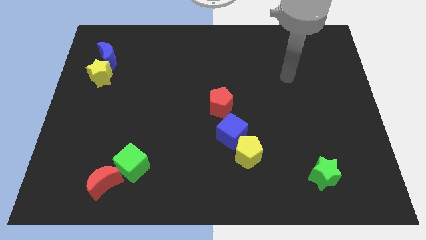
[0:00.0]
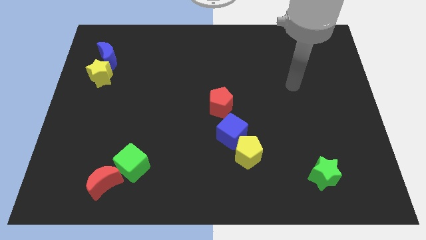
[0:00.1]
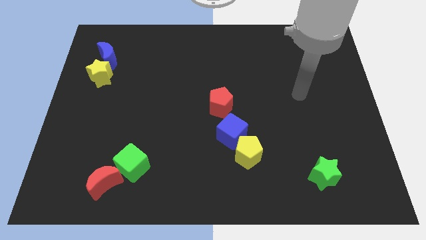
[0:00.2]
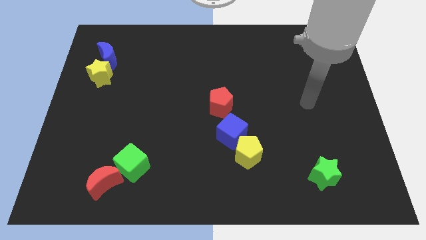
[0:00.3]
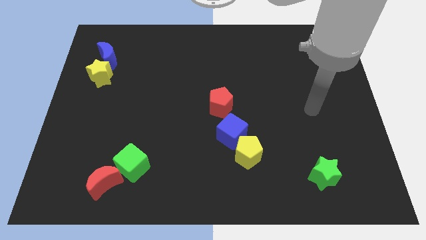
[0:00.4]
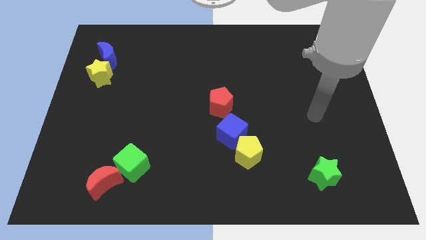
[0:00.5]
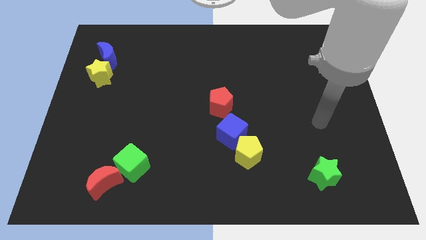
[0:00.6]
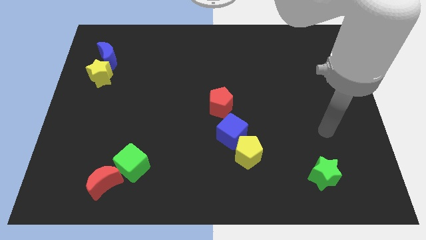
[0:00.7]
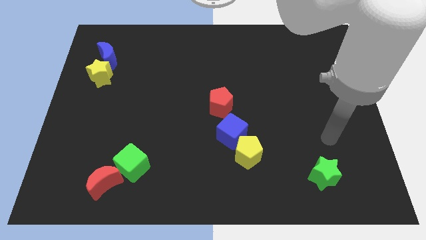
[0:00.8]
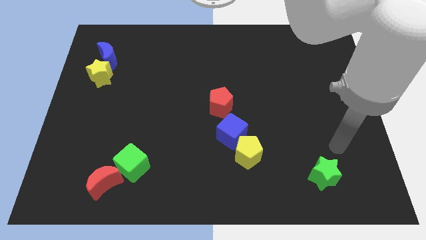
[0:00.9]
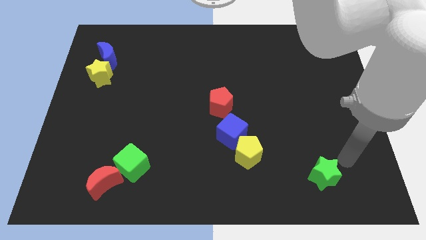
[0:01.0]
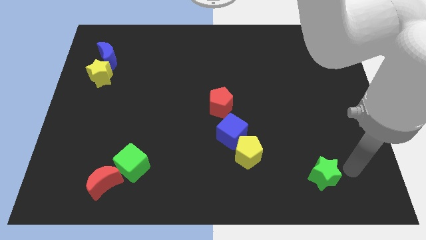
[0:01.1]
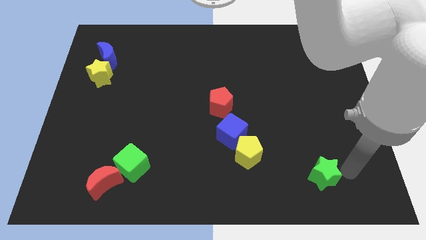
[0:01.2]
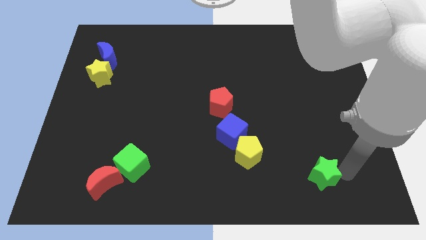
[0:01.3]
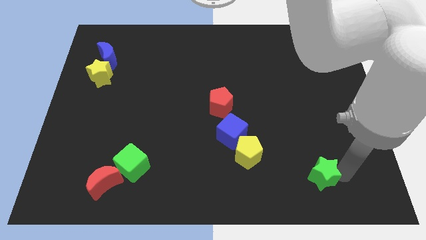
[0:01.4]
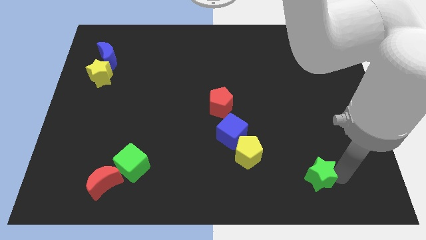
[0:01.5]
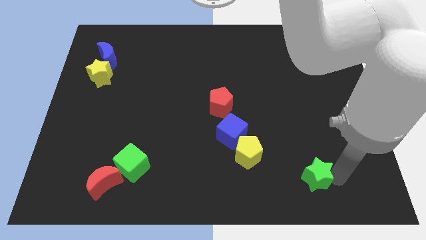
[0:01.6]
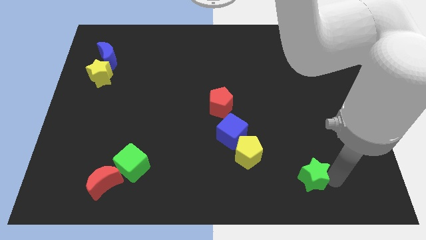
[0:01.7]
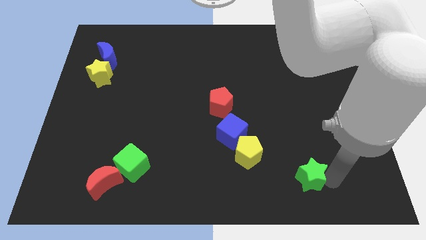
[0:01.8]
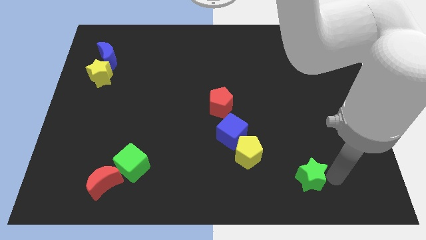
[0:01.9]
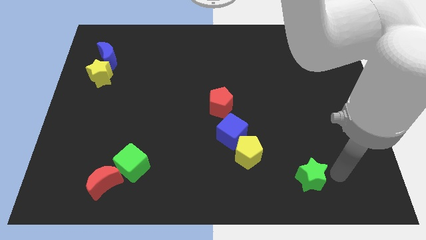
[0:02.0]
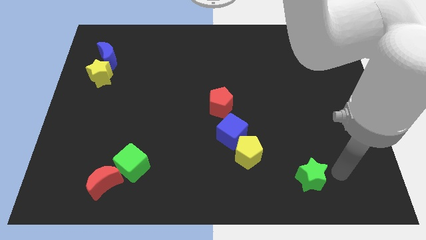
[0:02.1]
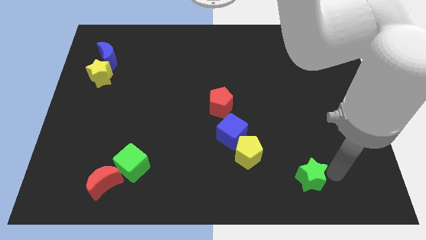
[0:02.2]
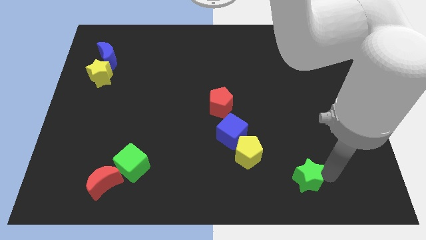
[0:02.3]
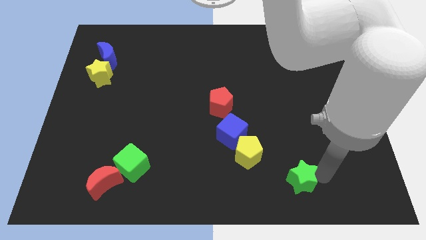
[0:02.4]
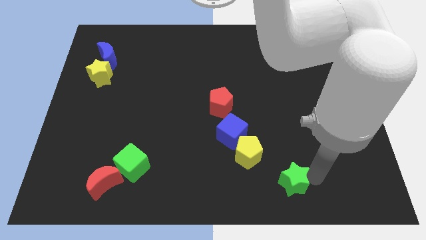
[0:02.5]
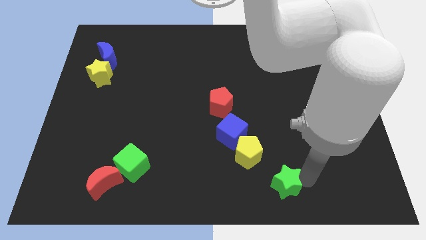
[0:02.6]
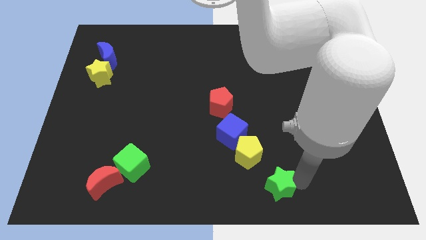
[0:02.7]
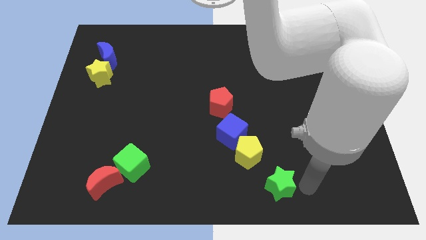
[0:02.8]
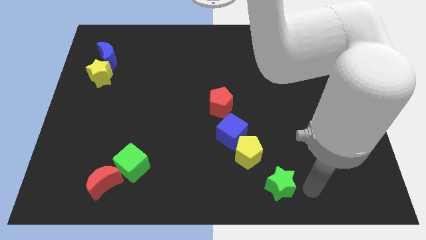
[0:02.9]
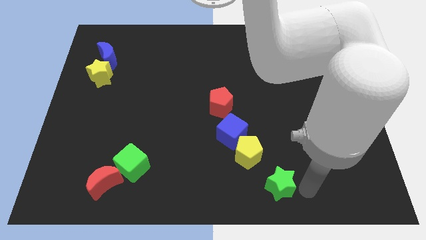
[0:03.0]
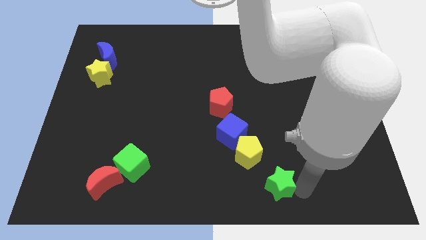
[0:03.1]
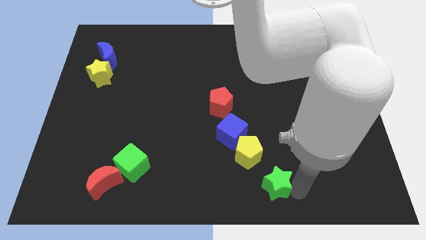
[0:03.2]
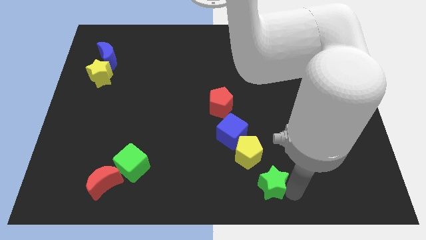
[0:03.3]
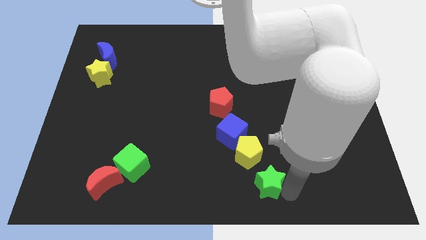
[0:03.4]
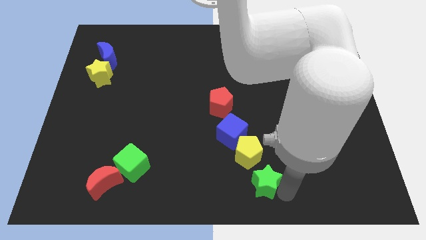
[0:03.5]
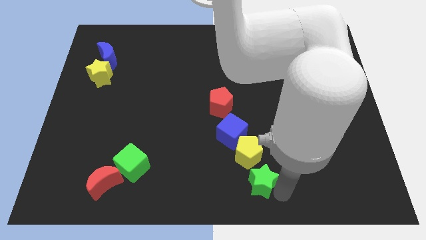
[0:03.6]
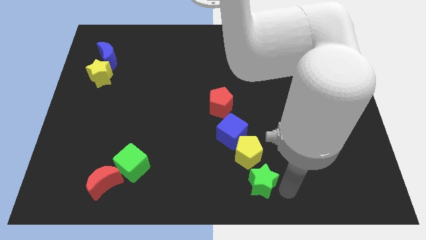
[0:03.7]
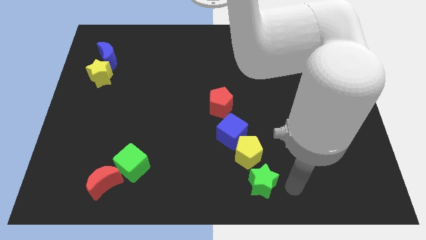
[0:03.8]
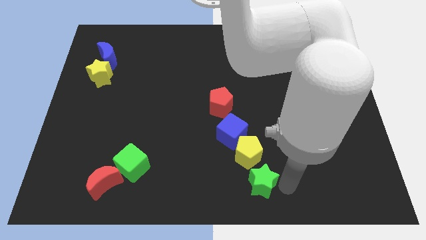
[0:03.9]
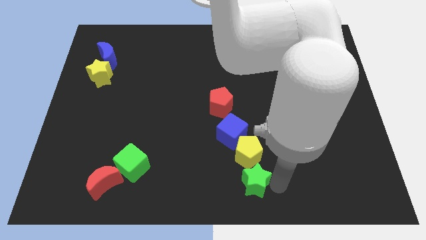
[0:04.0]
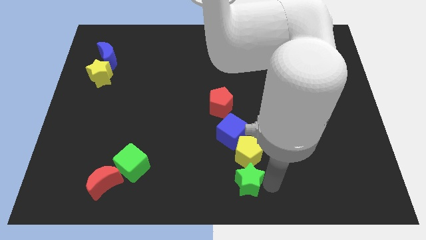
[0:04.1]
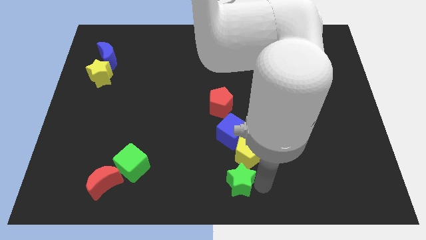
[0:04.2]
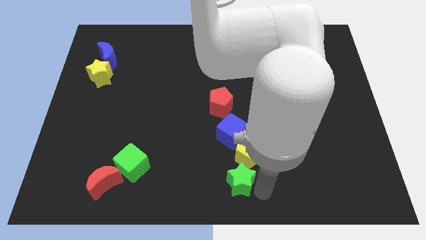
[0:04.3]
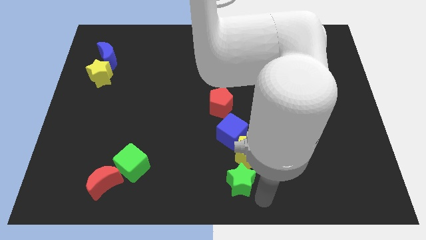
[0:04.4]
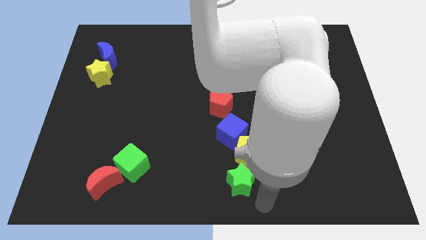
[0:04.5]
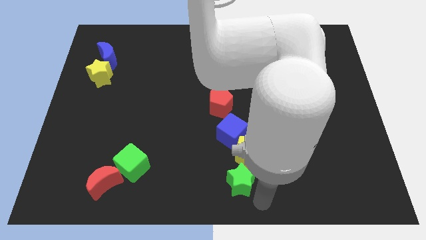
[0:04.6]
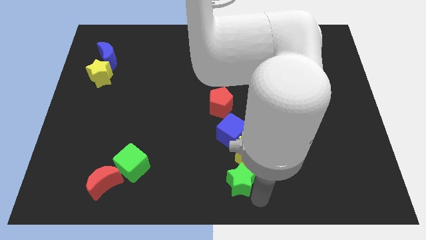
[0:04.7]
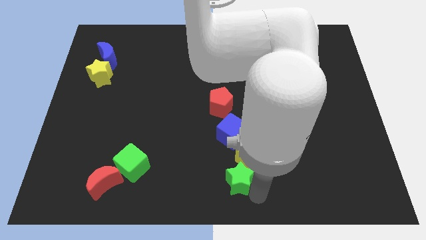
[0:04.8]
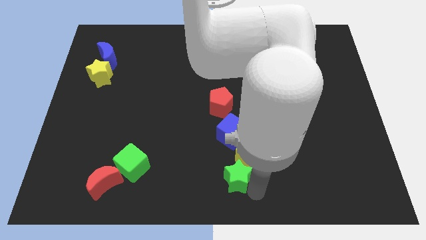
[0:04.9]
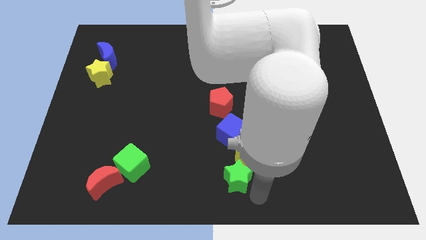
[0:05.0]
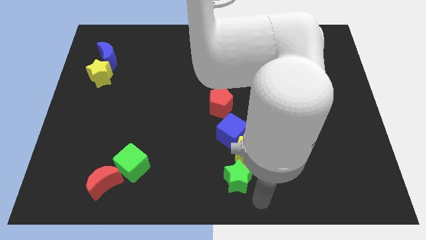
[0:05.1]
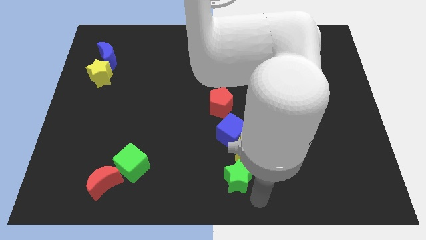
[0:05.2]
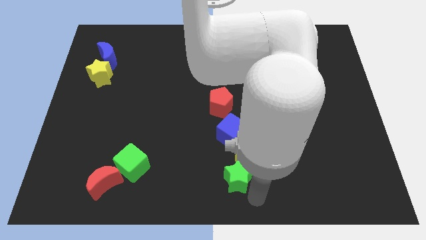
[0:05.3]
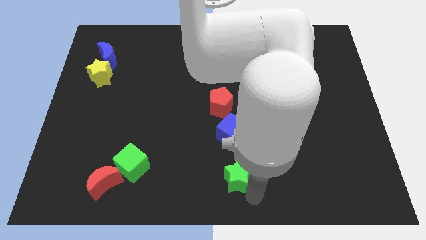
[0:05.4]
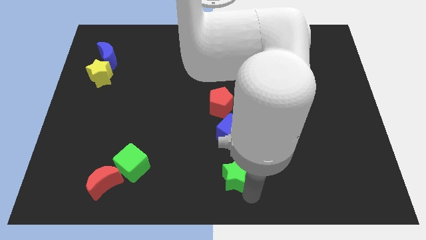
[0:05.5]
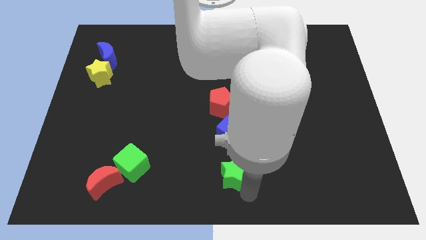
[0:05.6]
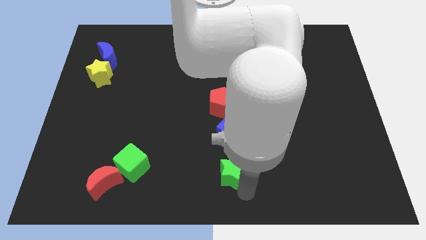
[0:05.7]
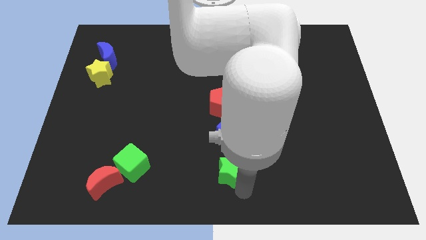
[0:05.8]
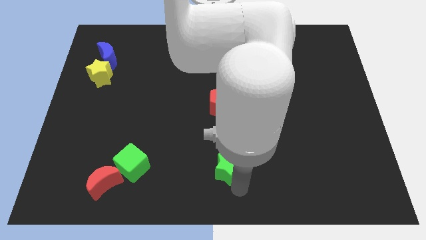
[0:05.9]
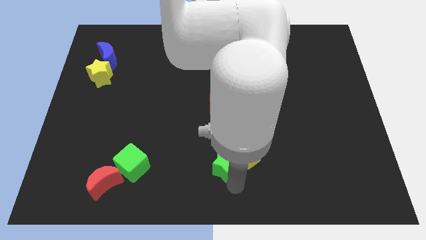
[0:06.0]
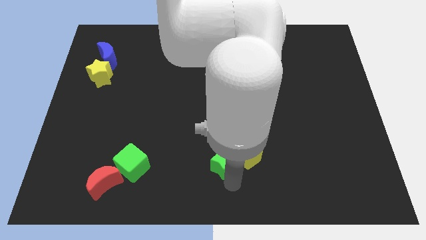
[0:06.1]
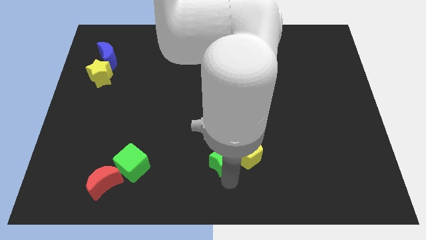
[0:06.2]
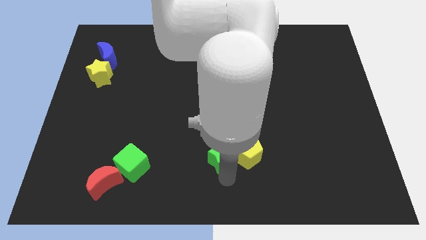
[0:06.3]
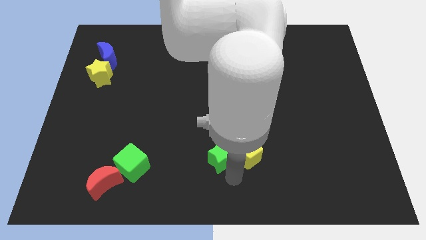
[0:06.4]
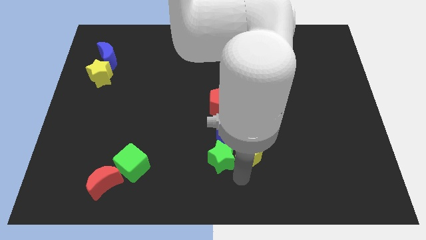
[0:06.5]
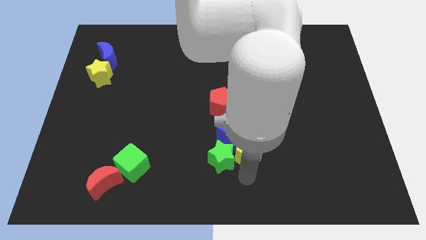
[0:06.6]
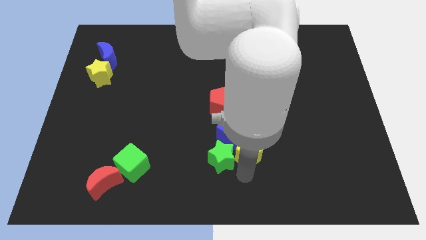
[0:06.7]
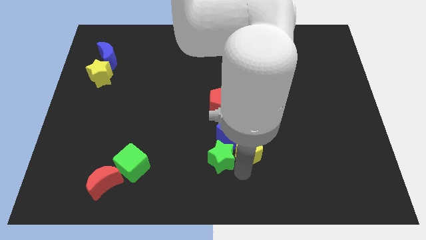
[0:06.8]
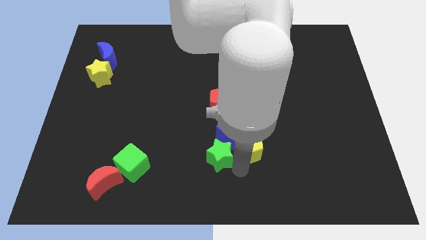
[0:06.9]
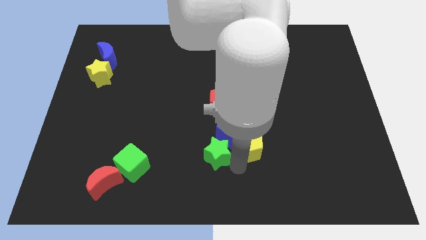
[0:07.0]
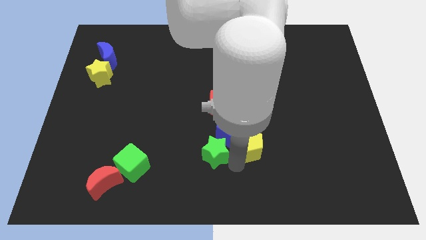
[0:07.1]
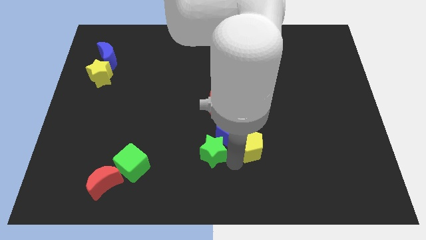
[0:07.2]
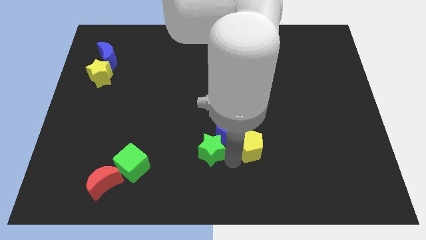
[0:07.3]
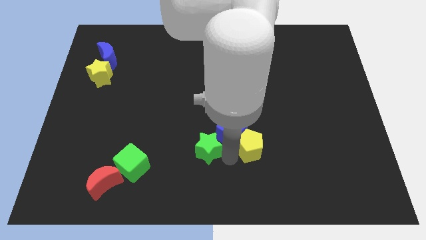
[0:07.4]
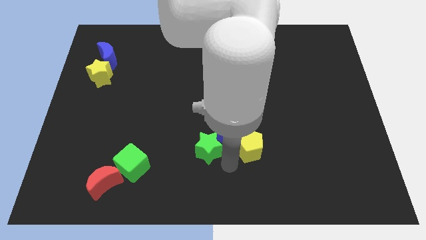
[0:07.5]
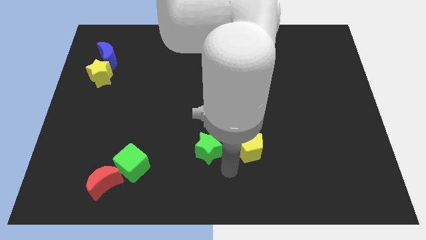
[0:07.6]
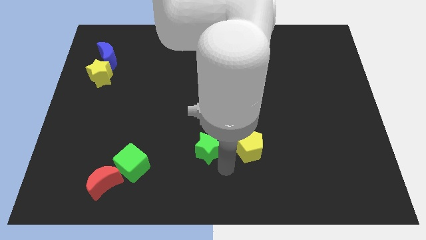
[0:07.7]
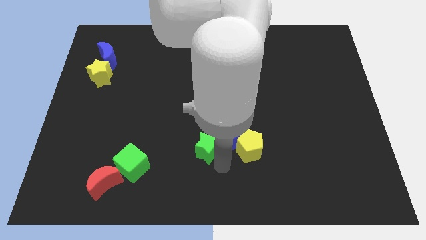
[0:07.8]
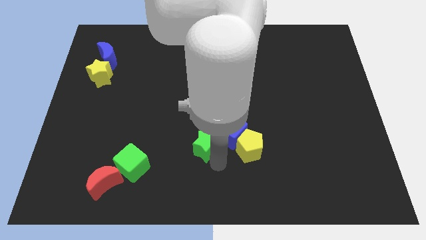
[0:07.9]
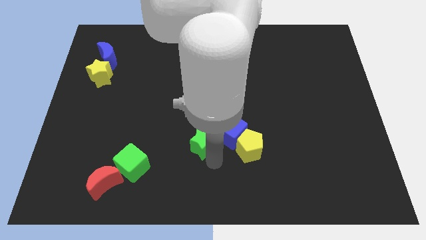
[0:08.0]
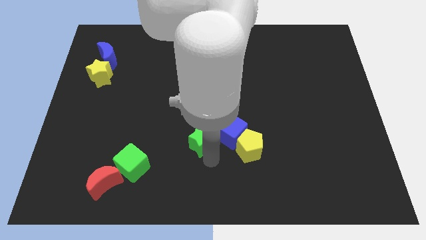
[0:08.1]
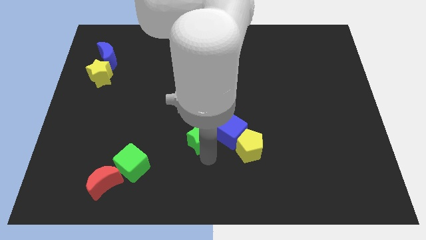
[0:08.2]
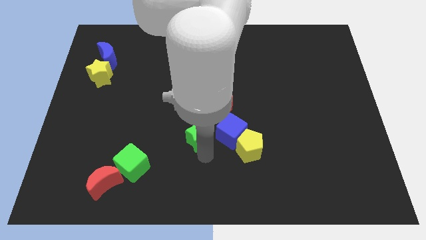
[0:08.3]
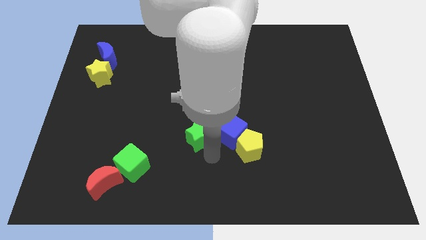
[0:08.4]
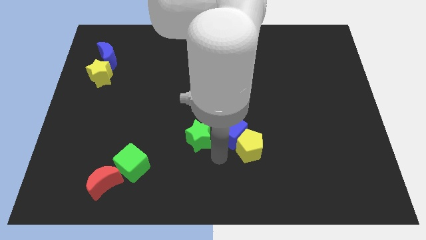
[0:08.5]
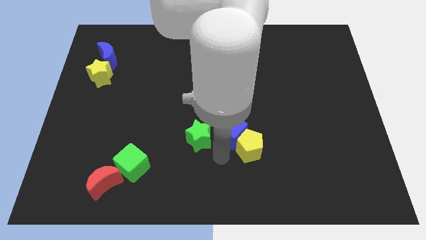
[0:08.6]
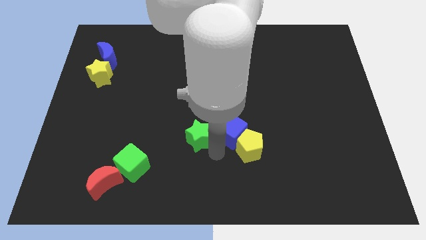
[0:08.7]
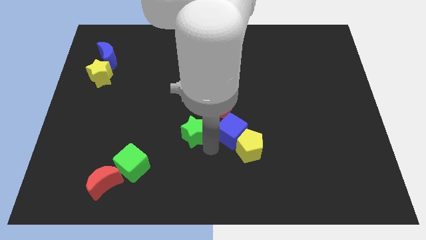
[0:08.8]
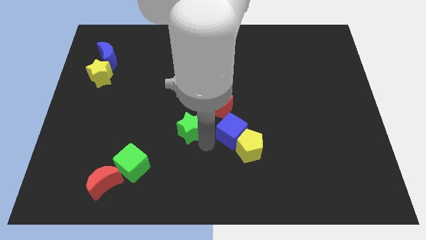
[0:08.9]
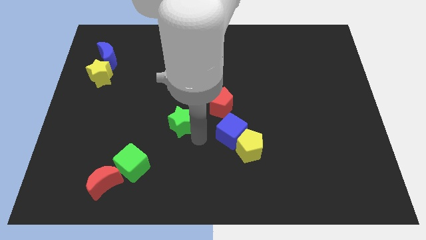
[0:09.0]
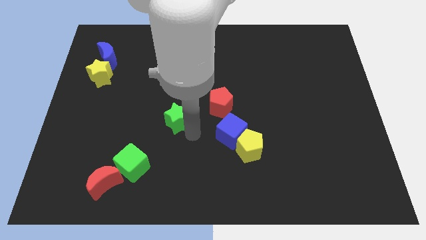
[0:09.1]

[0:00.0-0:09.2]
push the green star just left of the red pentagon
